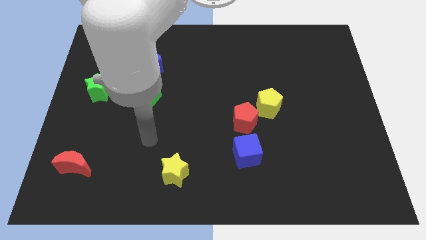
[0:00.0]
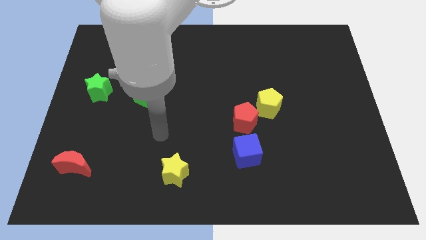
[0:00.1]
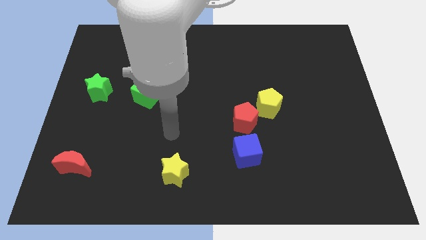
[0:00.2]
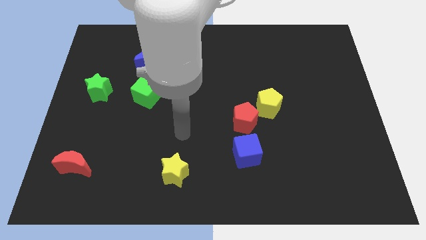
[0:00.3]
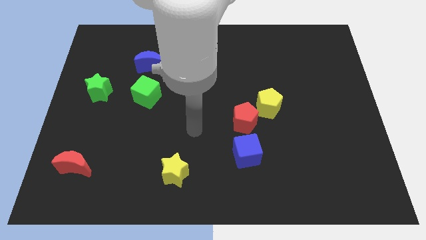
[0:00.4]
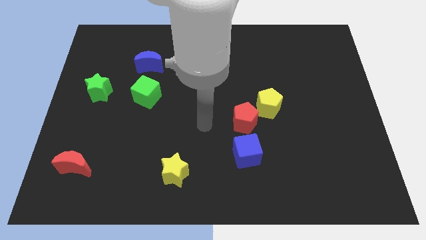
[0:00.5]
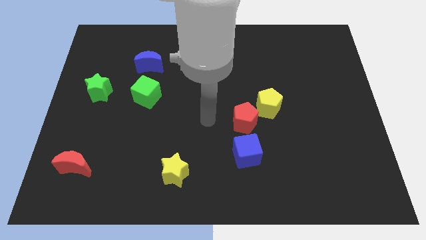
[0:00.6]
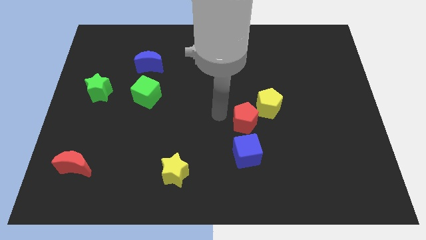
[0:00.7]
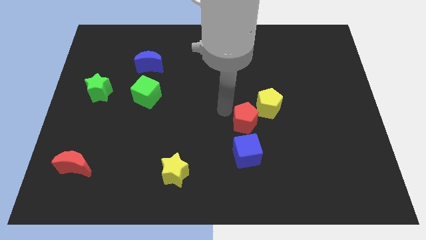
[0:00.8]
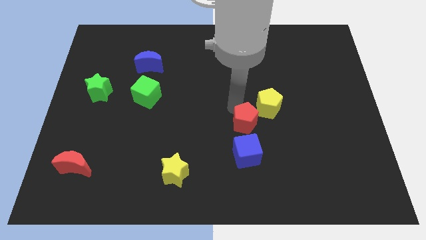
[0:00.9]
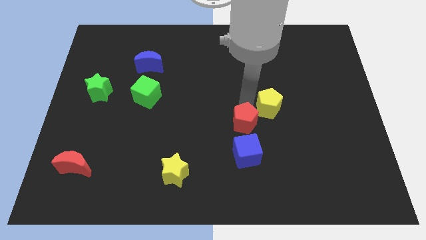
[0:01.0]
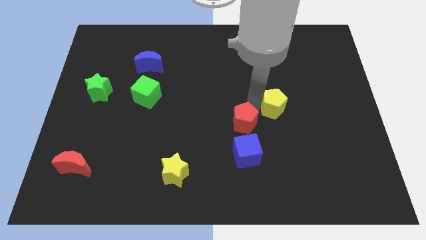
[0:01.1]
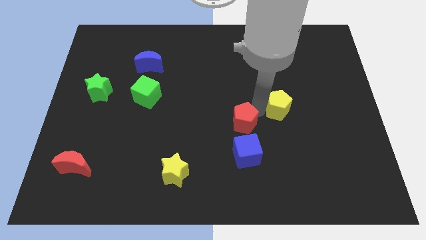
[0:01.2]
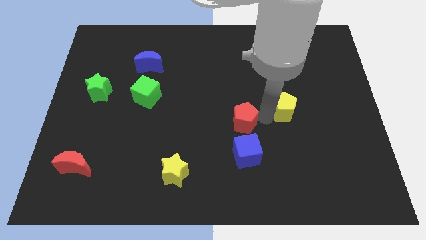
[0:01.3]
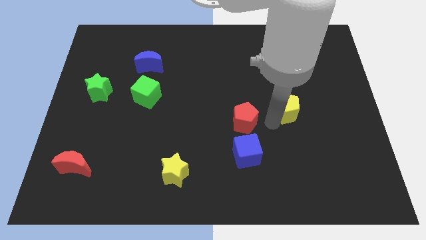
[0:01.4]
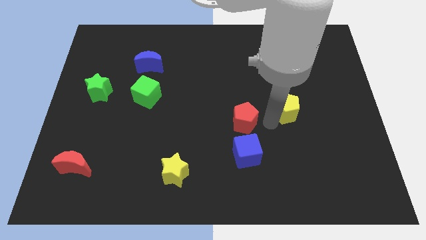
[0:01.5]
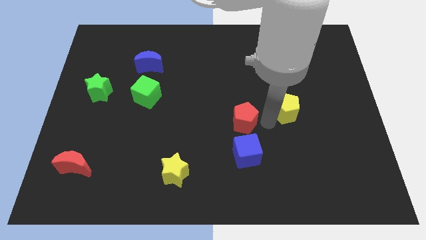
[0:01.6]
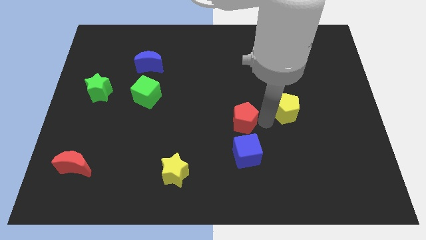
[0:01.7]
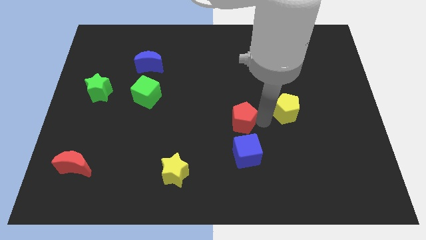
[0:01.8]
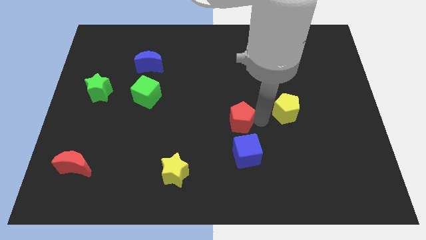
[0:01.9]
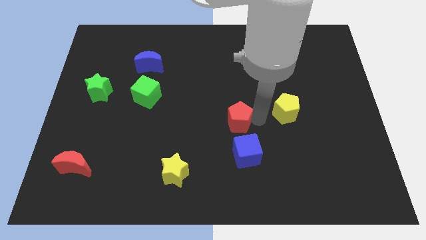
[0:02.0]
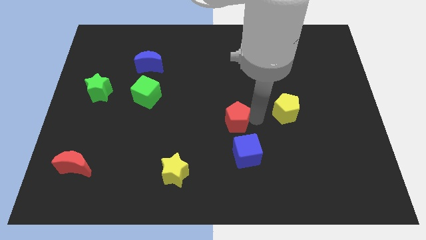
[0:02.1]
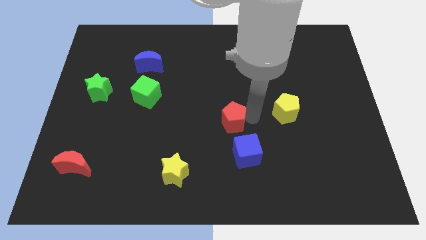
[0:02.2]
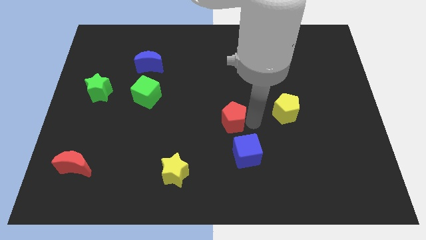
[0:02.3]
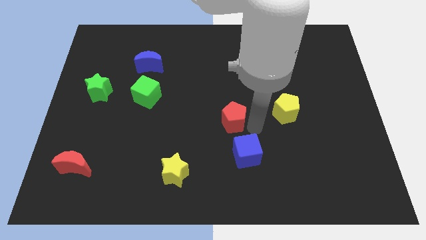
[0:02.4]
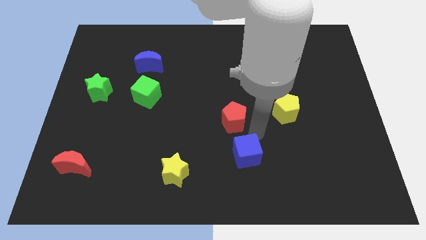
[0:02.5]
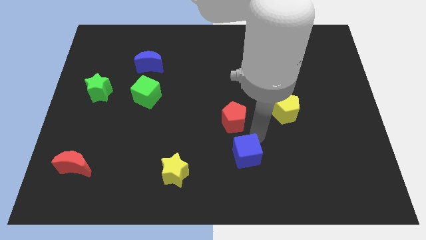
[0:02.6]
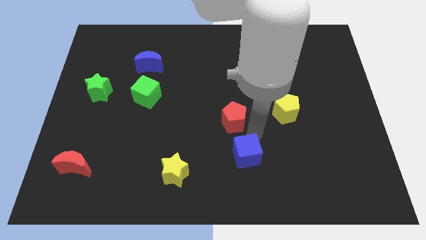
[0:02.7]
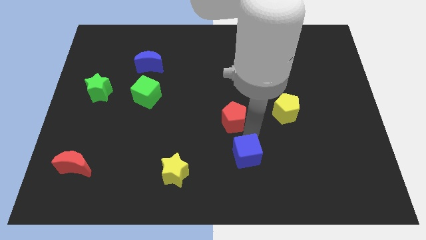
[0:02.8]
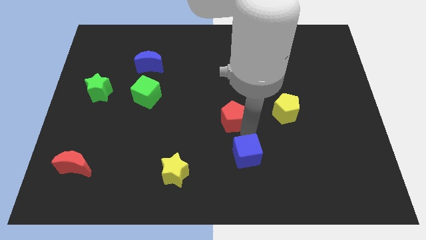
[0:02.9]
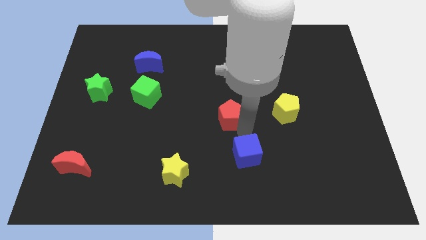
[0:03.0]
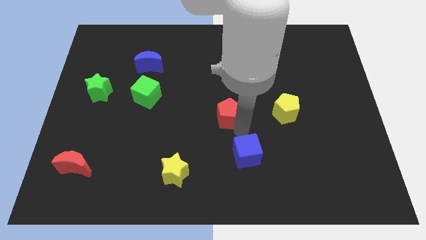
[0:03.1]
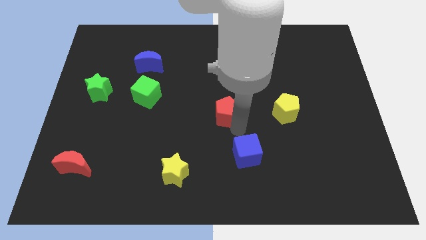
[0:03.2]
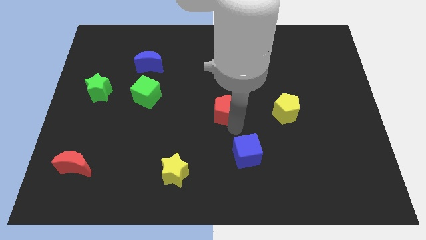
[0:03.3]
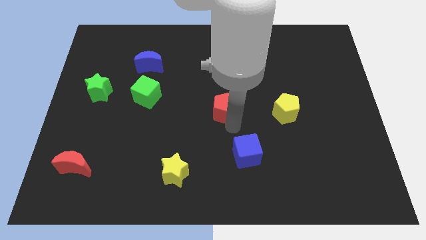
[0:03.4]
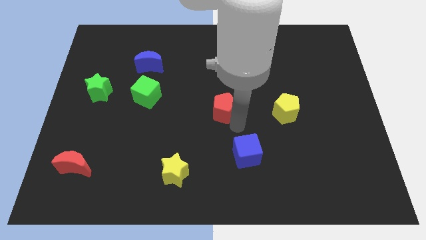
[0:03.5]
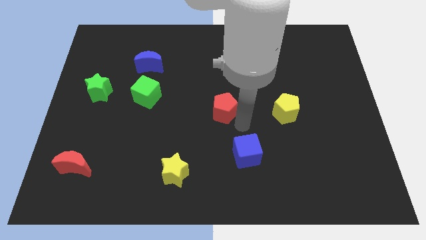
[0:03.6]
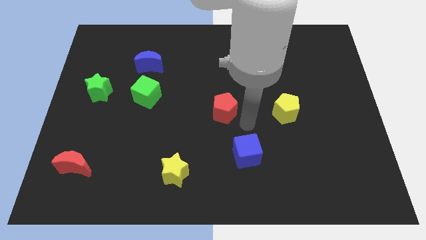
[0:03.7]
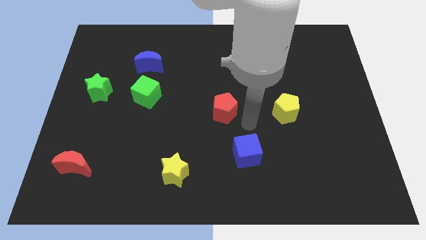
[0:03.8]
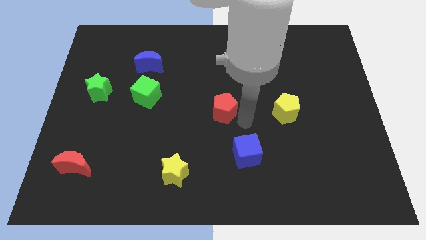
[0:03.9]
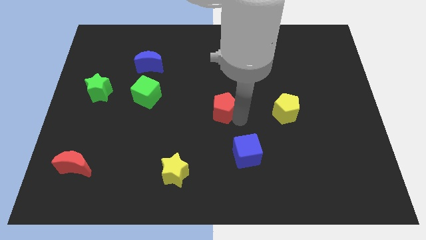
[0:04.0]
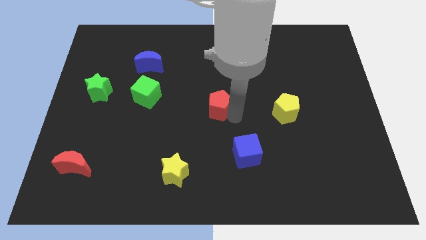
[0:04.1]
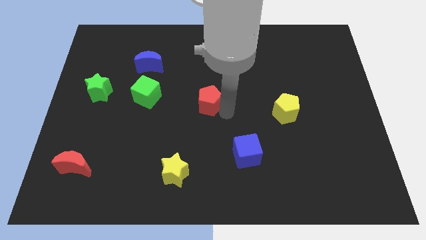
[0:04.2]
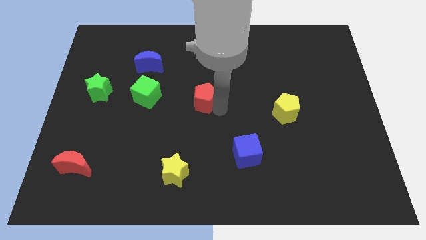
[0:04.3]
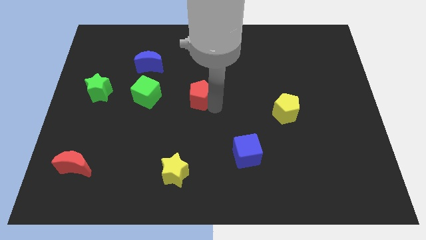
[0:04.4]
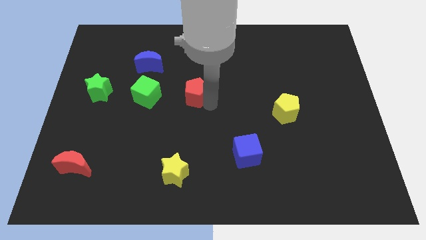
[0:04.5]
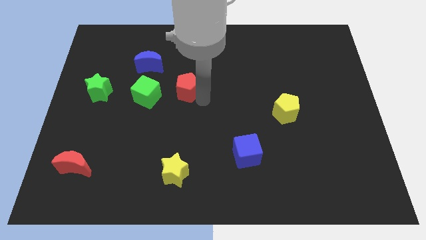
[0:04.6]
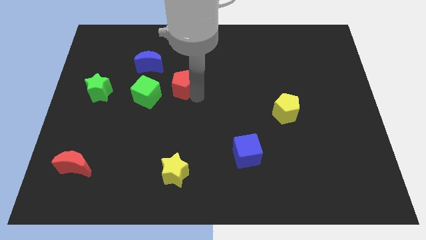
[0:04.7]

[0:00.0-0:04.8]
push the red pentagon to the bottom right side of the blue moon

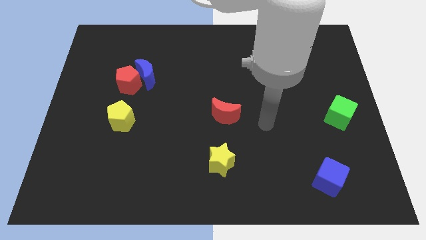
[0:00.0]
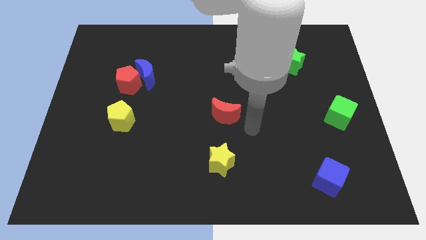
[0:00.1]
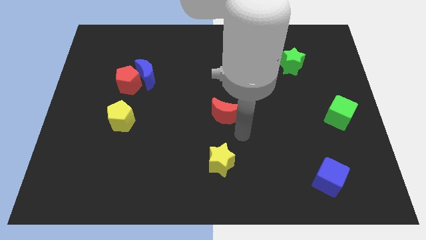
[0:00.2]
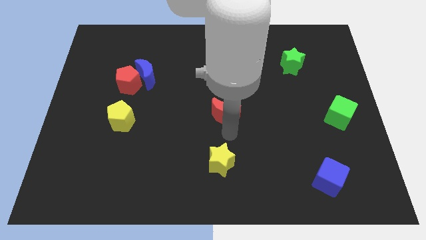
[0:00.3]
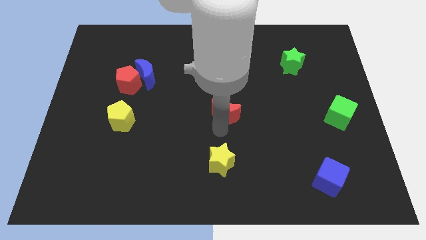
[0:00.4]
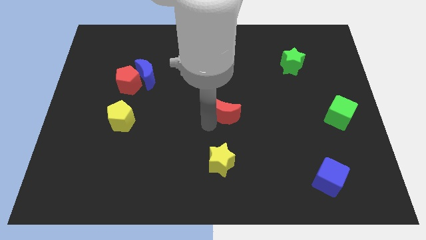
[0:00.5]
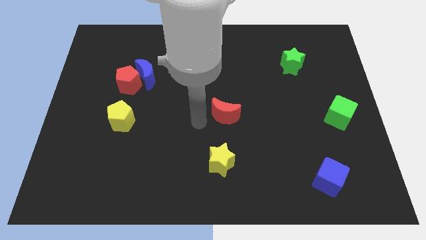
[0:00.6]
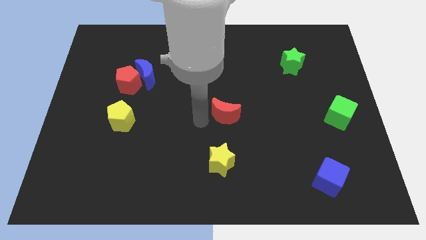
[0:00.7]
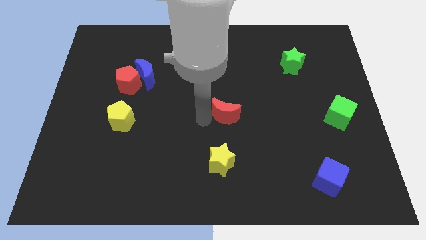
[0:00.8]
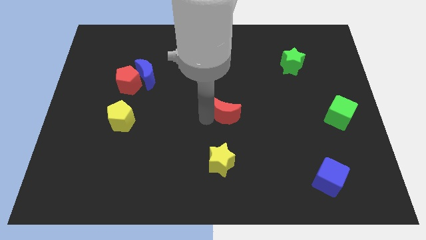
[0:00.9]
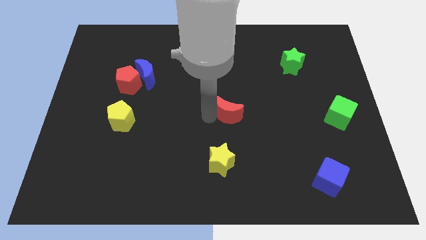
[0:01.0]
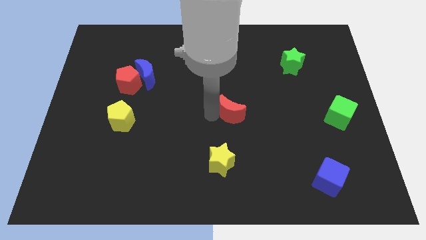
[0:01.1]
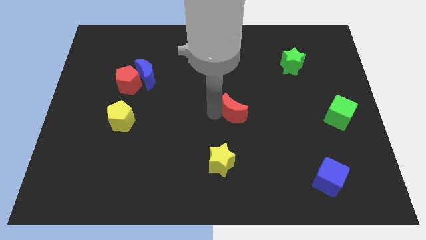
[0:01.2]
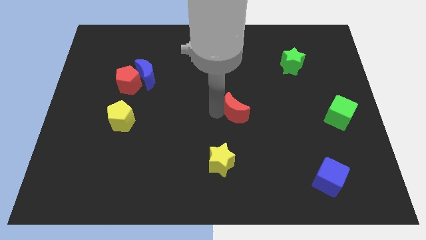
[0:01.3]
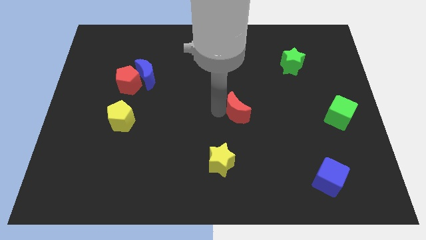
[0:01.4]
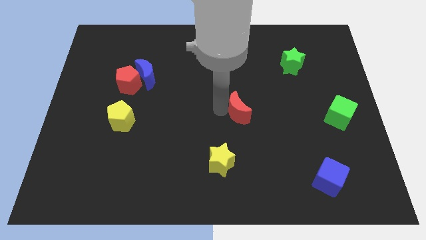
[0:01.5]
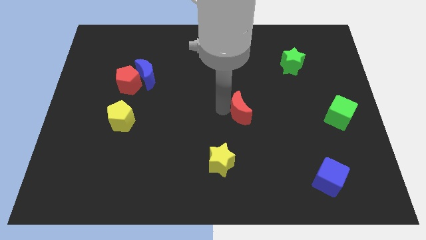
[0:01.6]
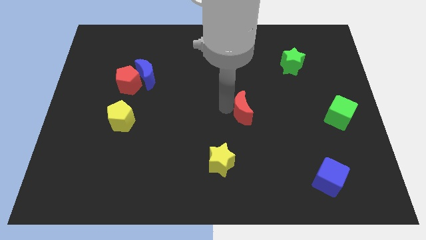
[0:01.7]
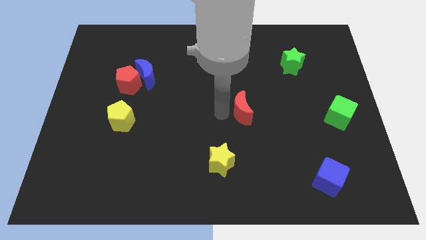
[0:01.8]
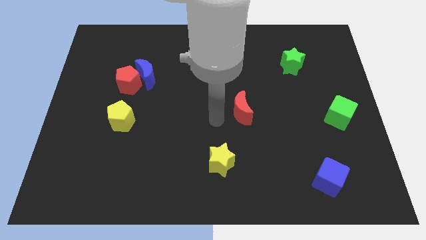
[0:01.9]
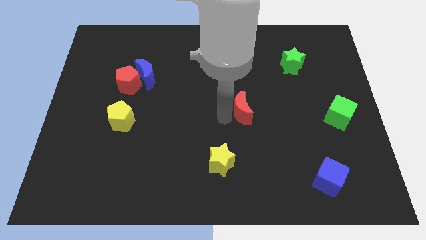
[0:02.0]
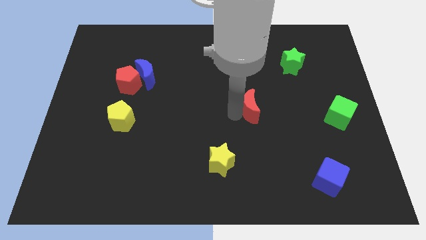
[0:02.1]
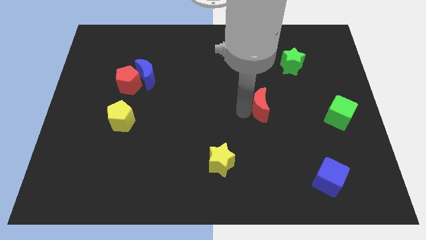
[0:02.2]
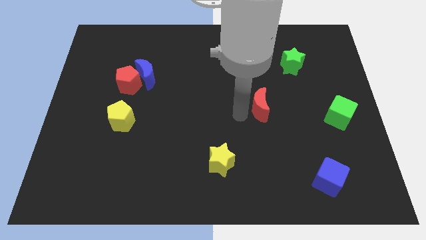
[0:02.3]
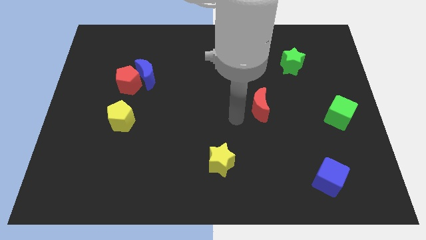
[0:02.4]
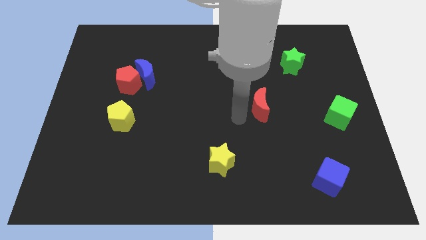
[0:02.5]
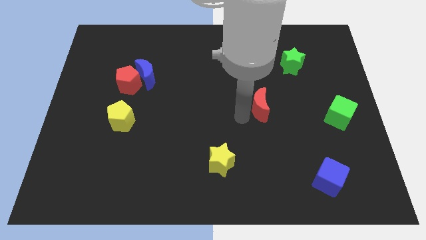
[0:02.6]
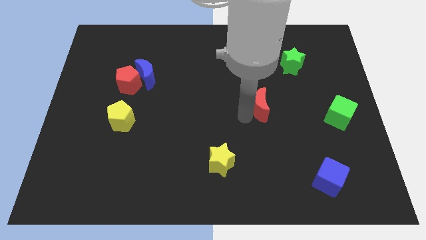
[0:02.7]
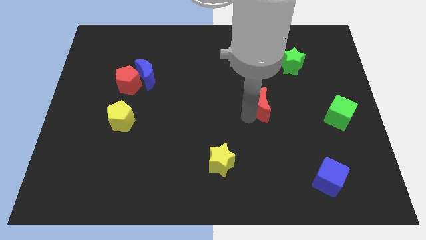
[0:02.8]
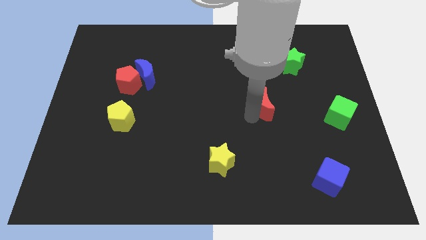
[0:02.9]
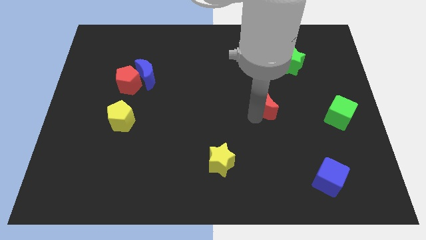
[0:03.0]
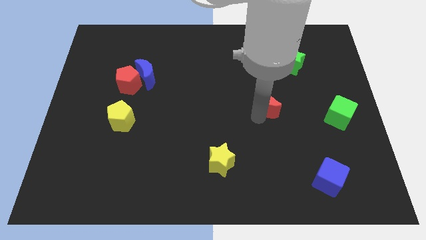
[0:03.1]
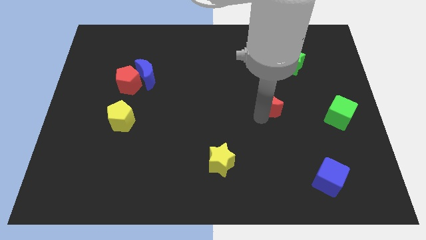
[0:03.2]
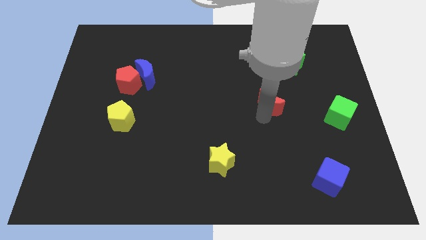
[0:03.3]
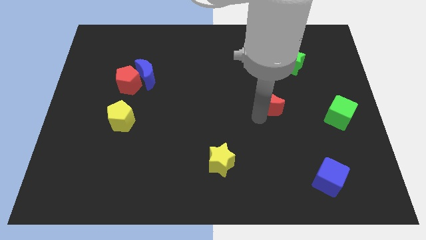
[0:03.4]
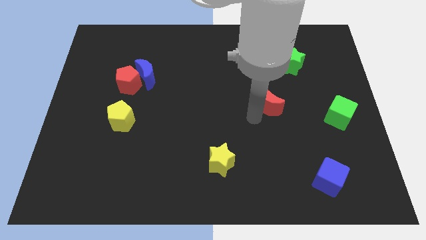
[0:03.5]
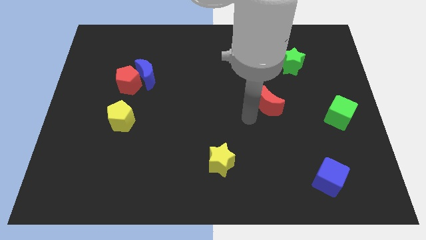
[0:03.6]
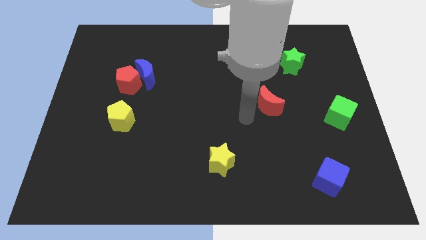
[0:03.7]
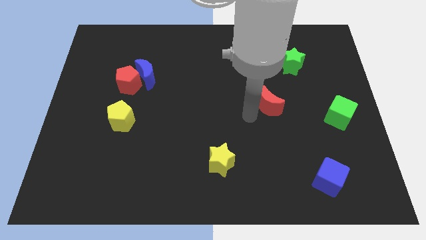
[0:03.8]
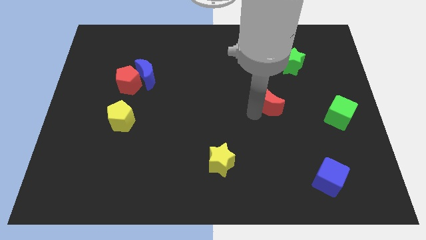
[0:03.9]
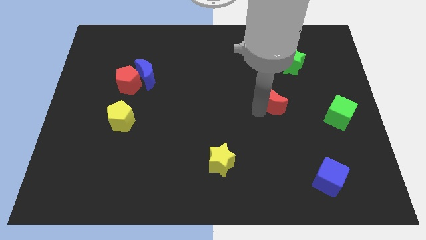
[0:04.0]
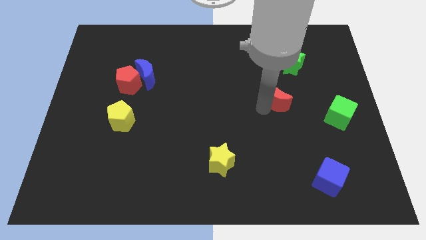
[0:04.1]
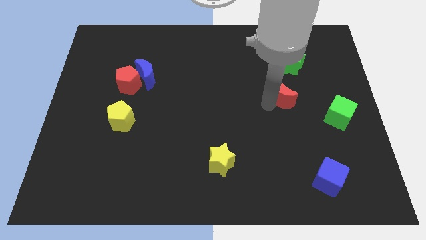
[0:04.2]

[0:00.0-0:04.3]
push the red moon to the bottom of the green star
